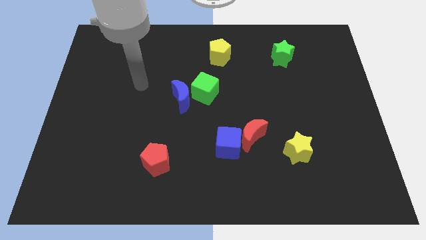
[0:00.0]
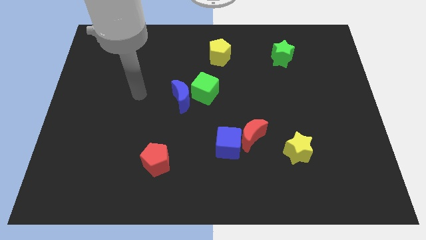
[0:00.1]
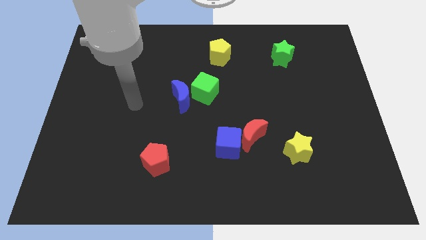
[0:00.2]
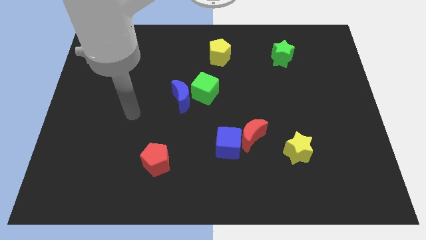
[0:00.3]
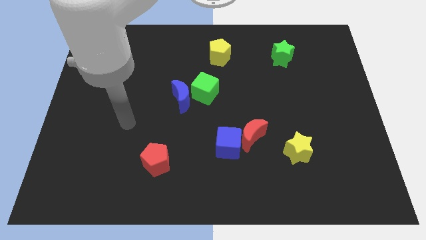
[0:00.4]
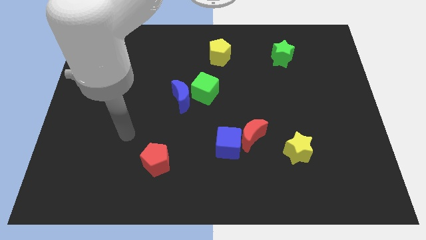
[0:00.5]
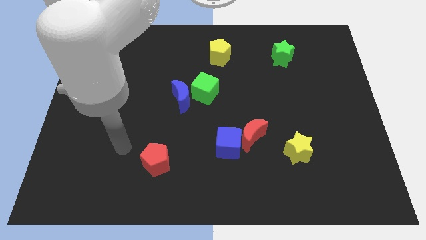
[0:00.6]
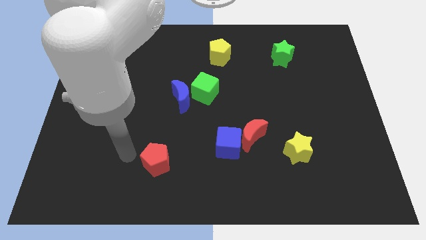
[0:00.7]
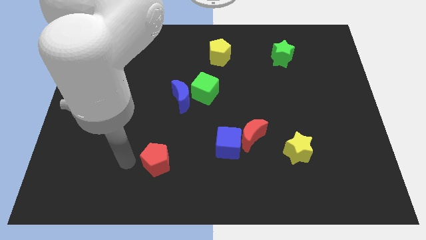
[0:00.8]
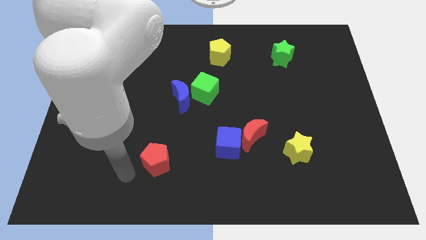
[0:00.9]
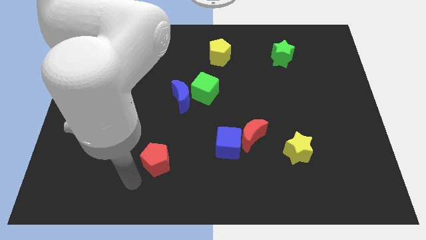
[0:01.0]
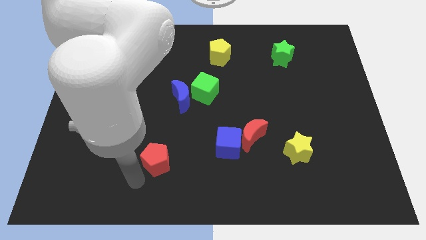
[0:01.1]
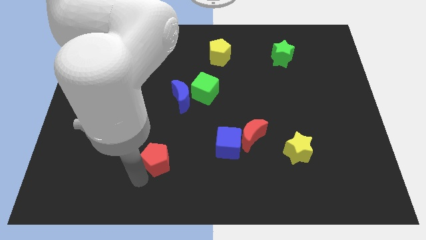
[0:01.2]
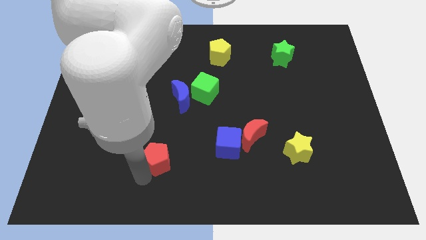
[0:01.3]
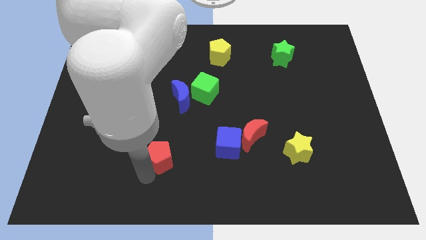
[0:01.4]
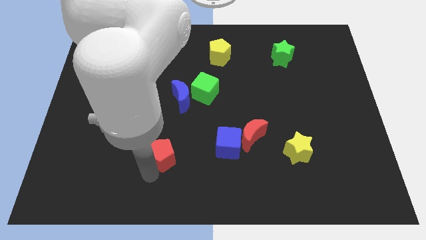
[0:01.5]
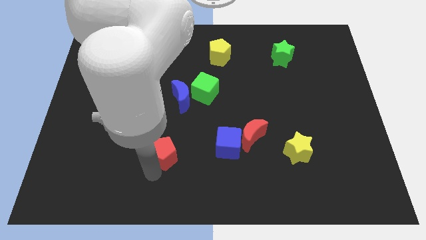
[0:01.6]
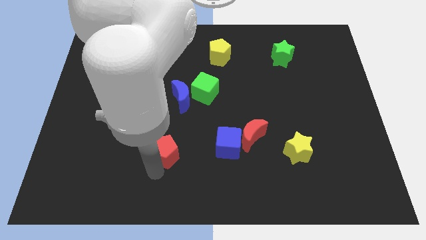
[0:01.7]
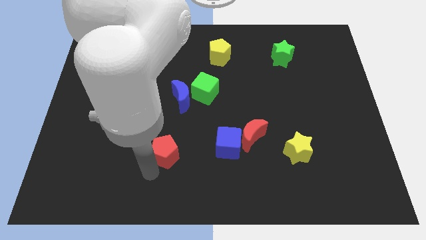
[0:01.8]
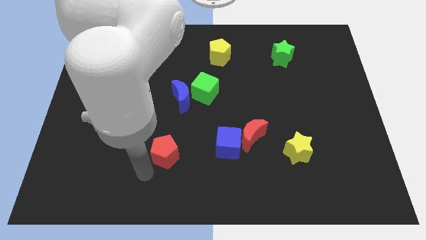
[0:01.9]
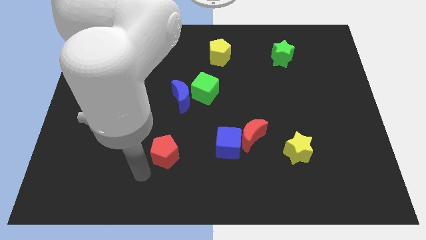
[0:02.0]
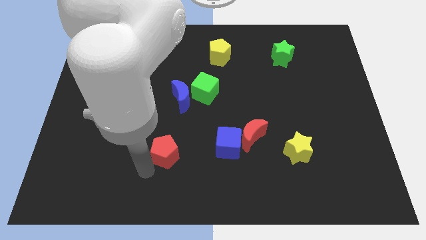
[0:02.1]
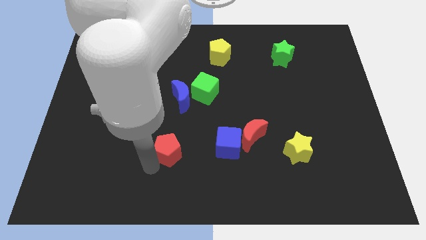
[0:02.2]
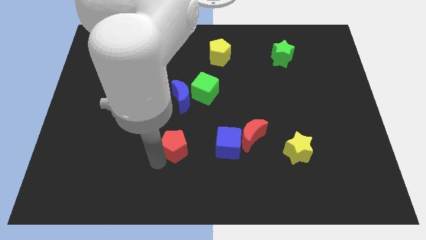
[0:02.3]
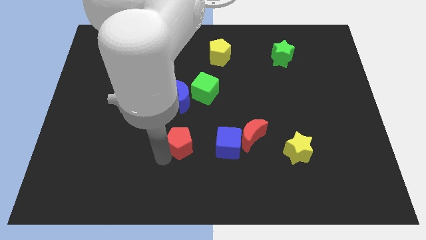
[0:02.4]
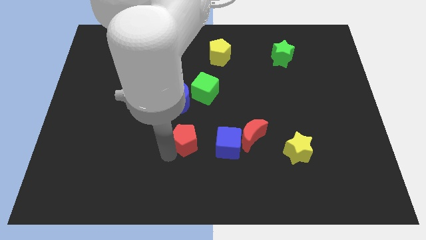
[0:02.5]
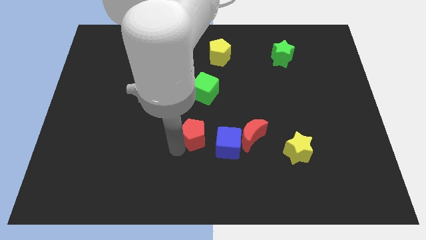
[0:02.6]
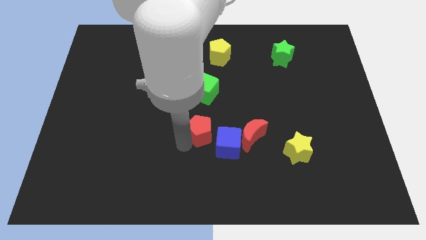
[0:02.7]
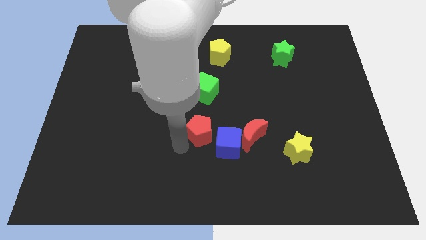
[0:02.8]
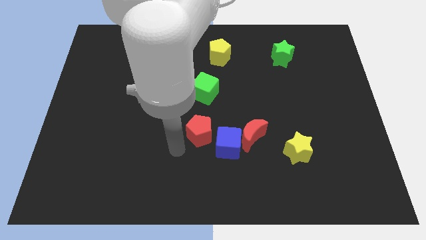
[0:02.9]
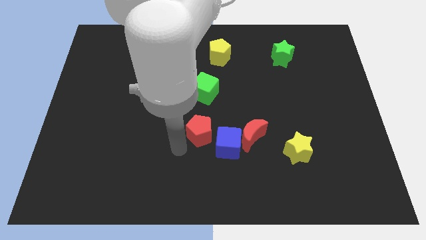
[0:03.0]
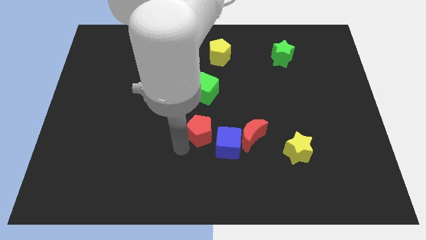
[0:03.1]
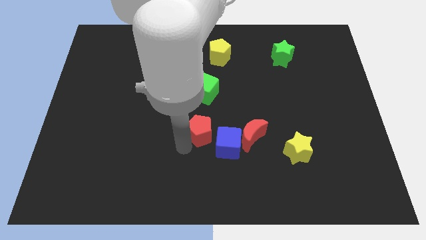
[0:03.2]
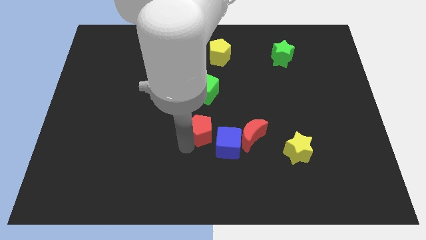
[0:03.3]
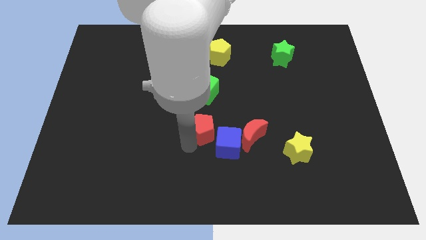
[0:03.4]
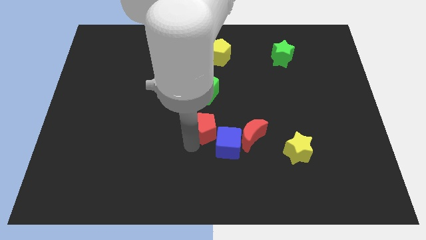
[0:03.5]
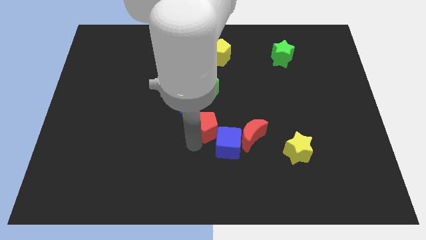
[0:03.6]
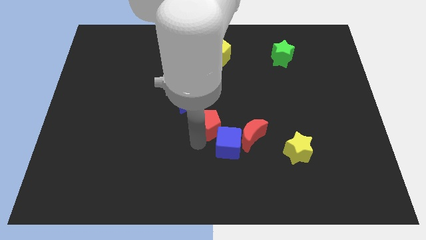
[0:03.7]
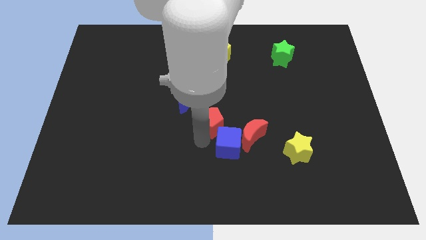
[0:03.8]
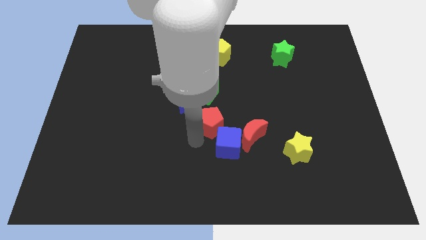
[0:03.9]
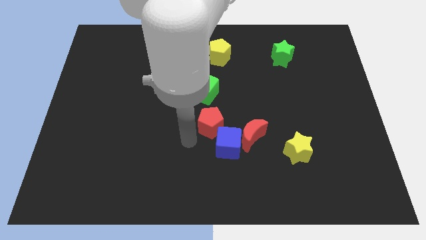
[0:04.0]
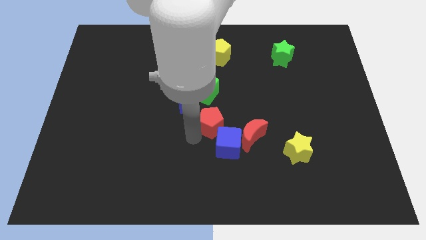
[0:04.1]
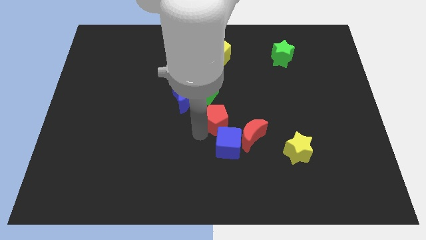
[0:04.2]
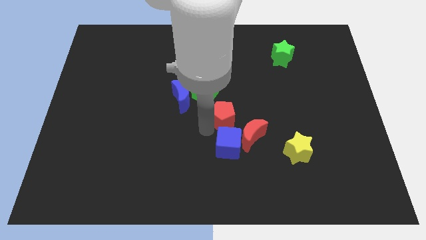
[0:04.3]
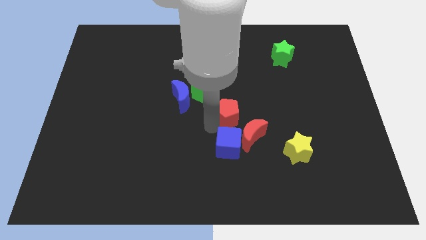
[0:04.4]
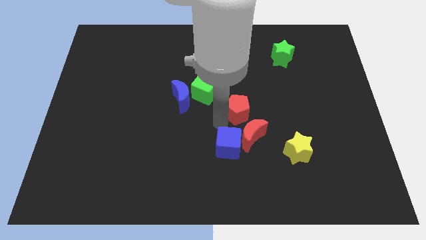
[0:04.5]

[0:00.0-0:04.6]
push the red pentagon up and then right

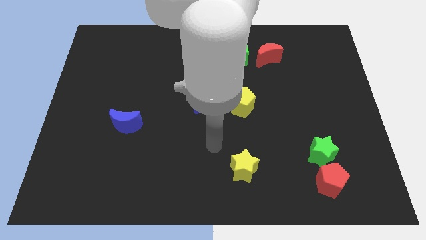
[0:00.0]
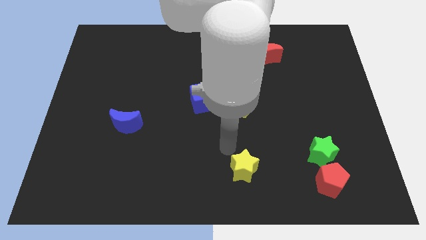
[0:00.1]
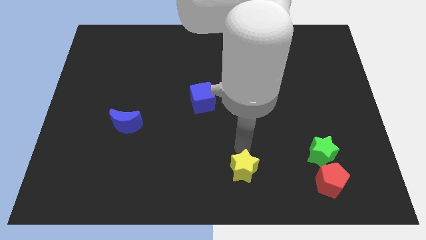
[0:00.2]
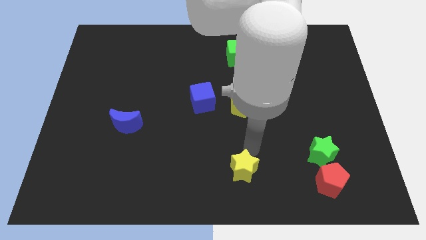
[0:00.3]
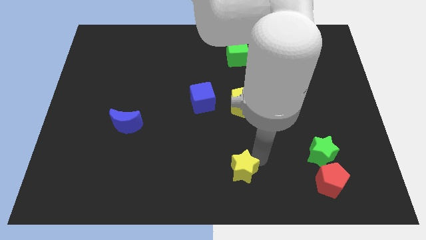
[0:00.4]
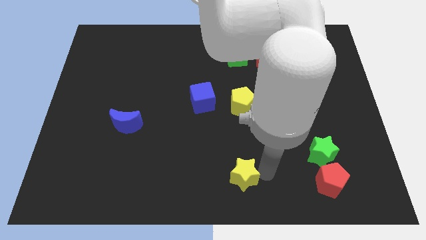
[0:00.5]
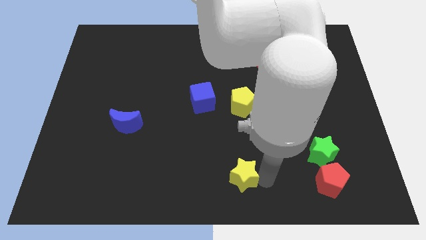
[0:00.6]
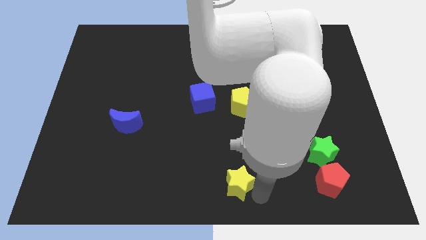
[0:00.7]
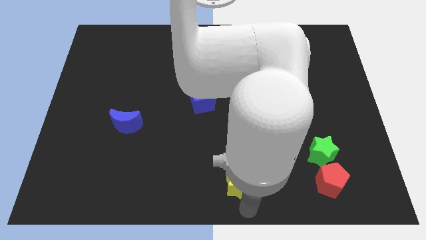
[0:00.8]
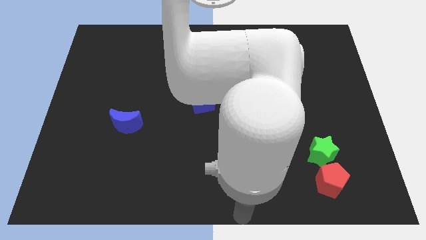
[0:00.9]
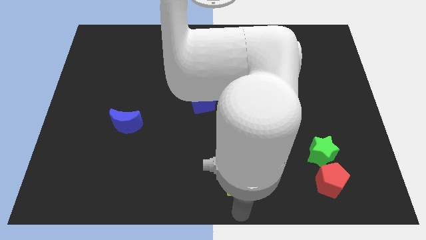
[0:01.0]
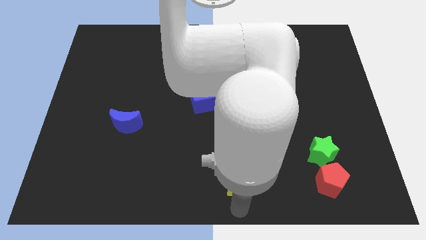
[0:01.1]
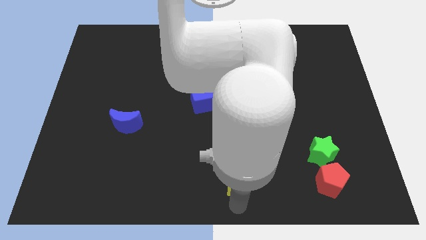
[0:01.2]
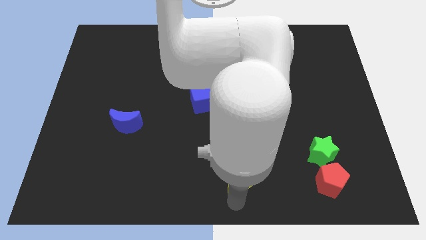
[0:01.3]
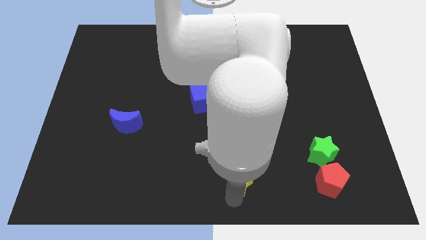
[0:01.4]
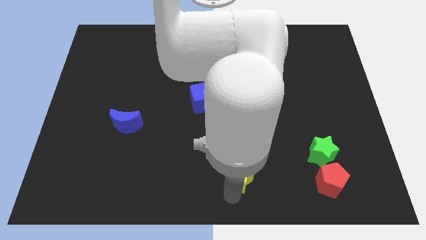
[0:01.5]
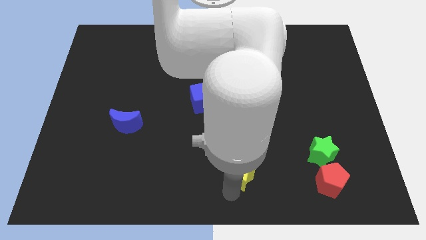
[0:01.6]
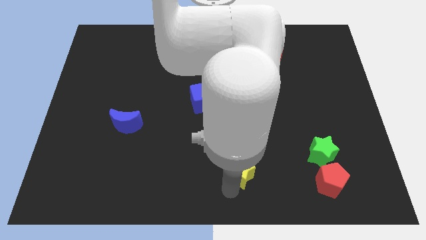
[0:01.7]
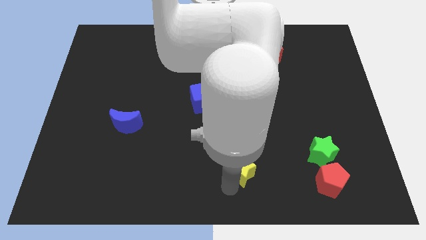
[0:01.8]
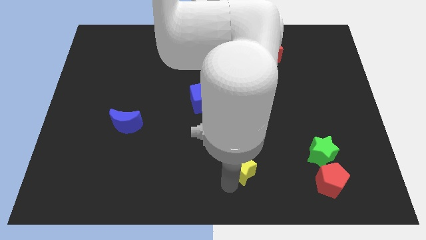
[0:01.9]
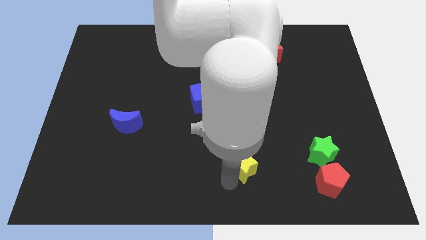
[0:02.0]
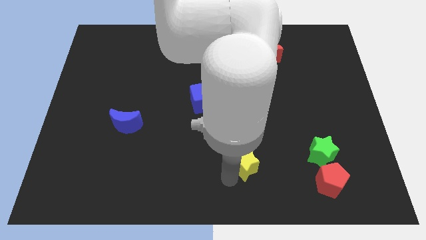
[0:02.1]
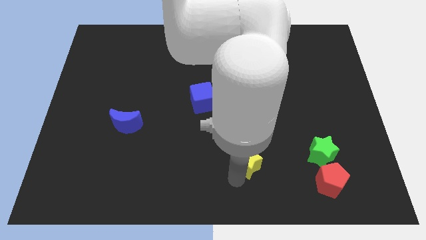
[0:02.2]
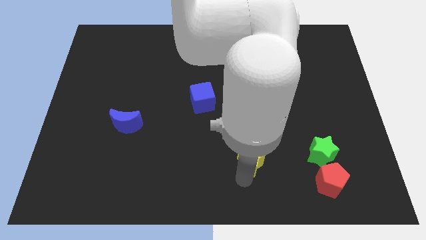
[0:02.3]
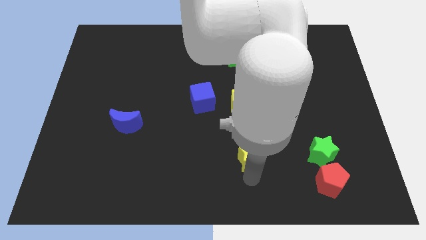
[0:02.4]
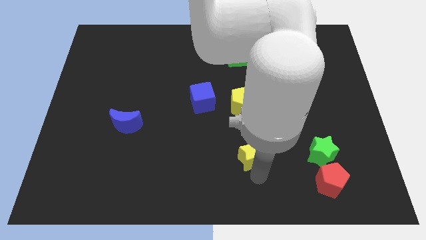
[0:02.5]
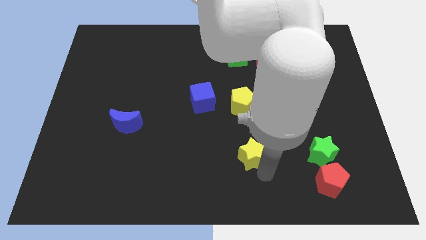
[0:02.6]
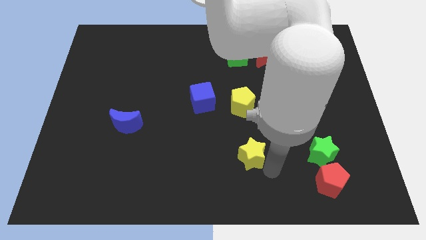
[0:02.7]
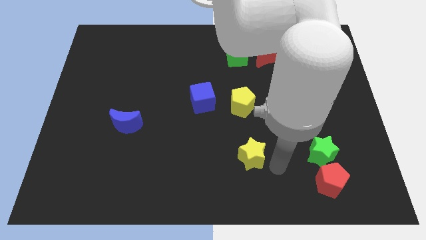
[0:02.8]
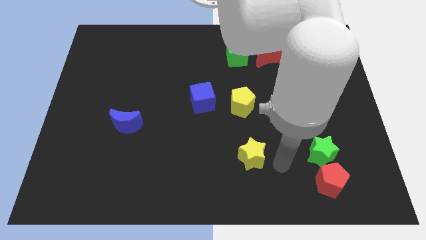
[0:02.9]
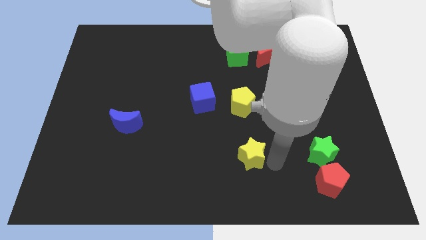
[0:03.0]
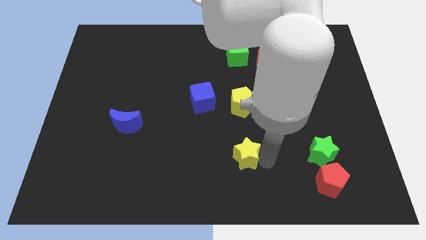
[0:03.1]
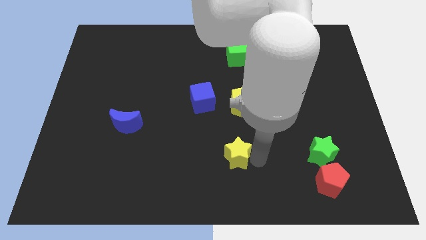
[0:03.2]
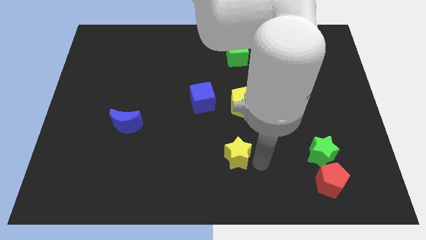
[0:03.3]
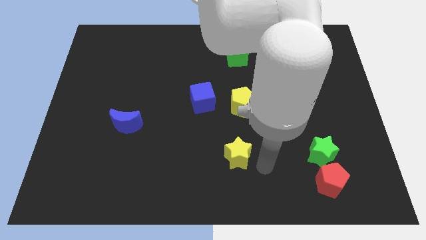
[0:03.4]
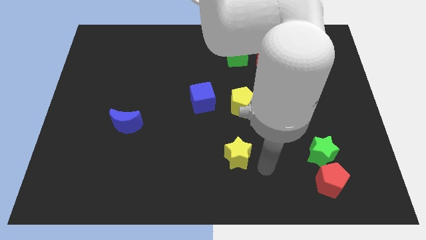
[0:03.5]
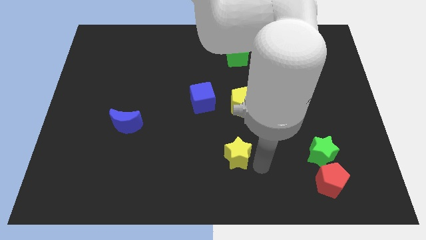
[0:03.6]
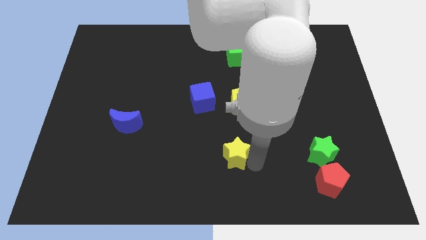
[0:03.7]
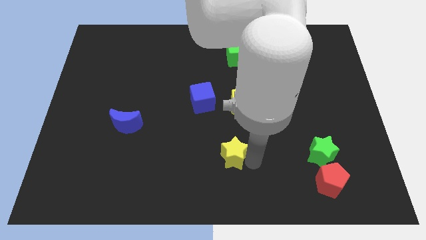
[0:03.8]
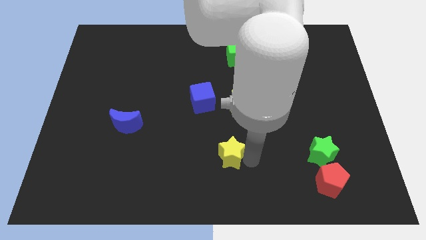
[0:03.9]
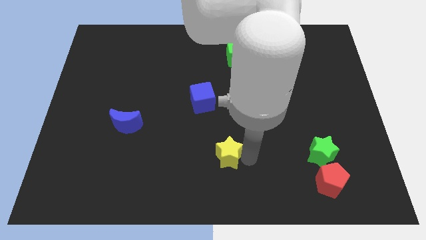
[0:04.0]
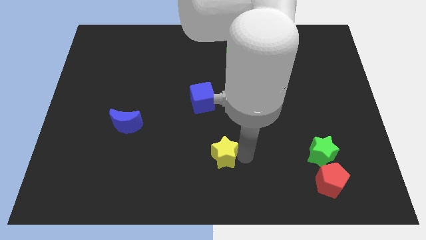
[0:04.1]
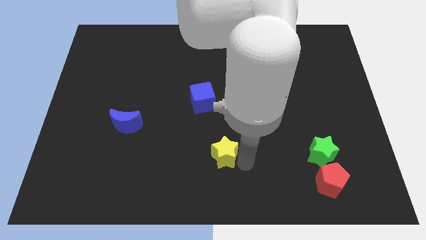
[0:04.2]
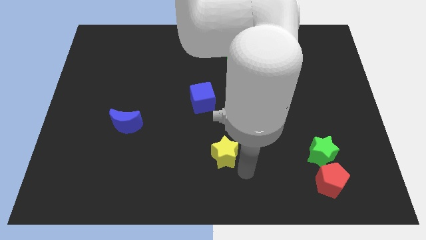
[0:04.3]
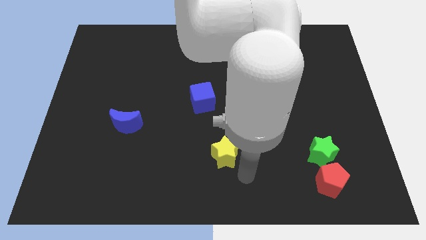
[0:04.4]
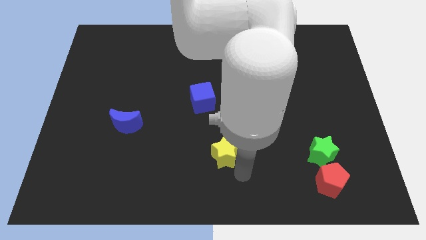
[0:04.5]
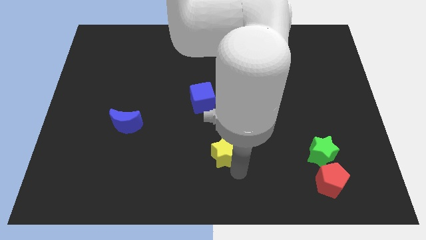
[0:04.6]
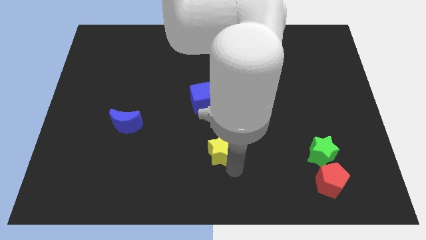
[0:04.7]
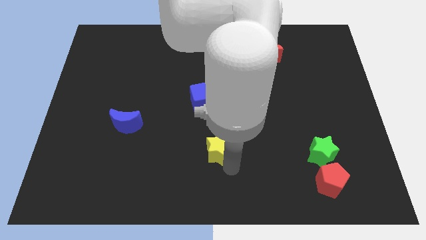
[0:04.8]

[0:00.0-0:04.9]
slide the yellow star upwards and then left a little bit
